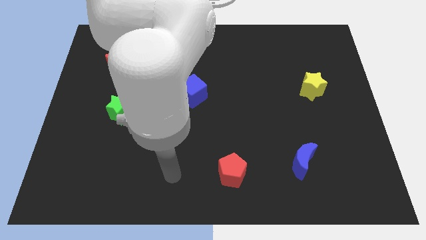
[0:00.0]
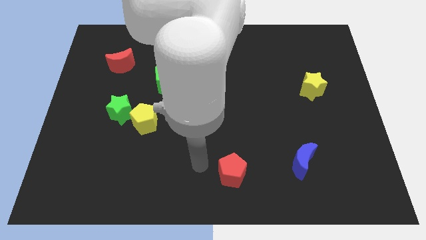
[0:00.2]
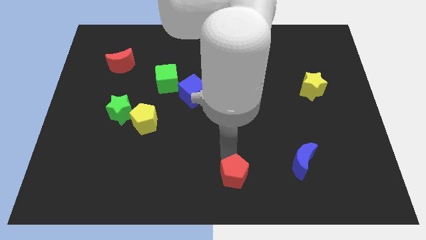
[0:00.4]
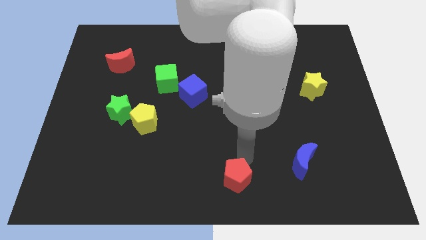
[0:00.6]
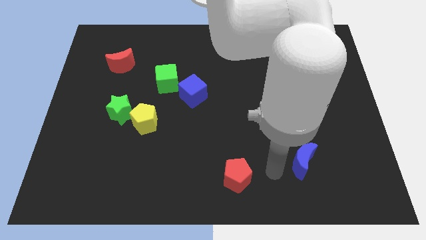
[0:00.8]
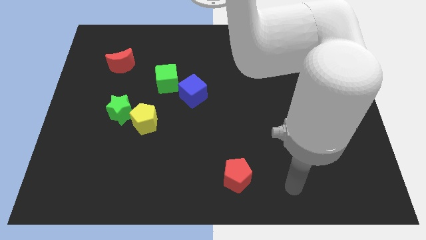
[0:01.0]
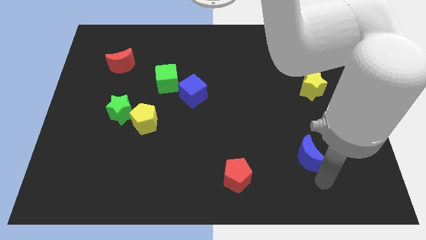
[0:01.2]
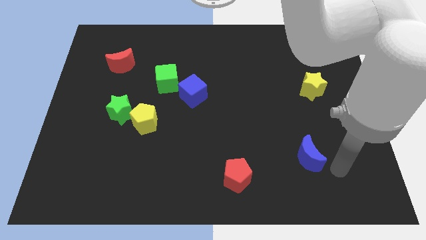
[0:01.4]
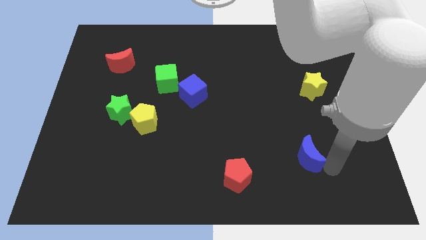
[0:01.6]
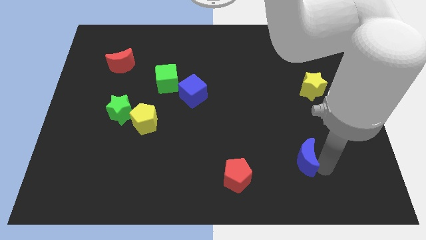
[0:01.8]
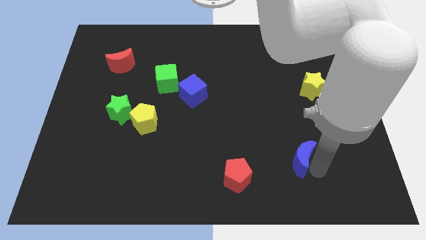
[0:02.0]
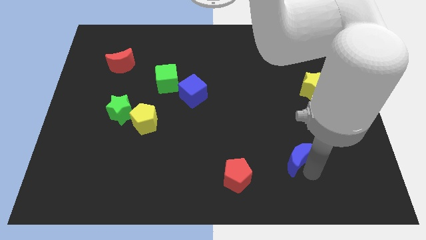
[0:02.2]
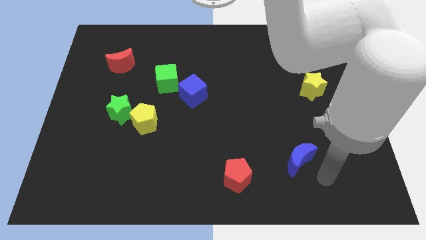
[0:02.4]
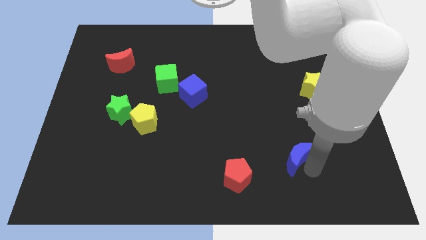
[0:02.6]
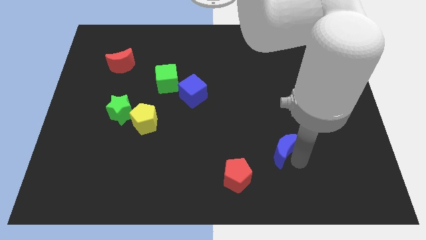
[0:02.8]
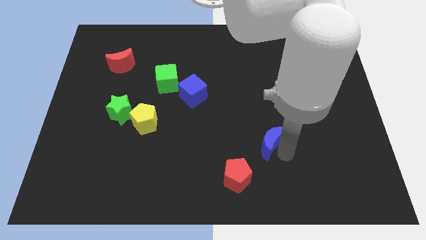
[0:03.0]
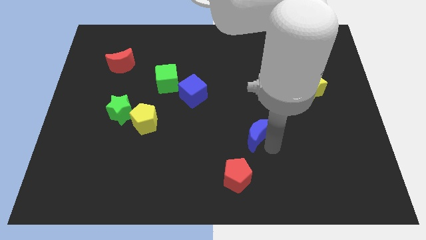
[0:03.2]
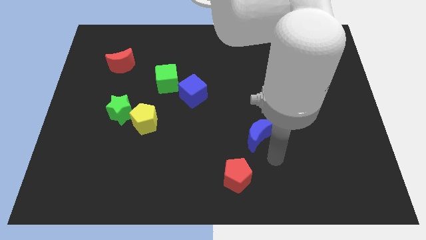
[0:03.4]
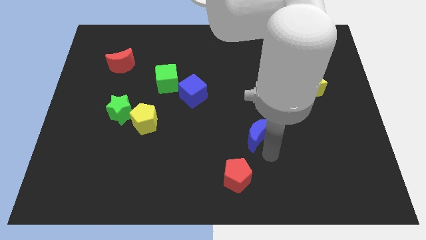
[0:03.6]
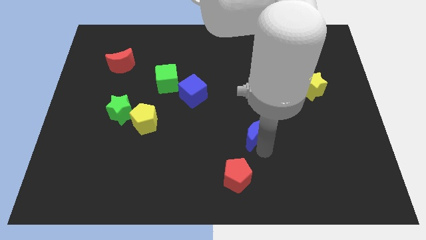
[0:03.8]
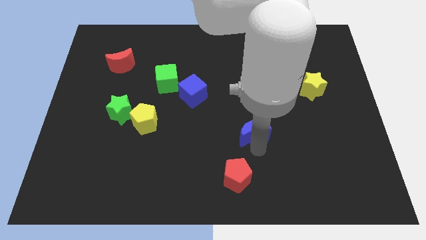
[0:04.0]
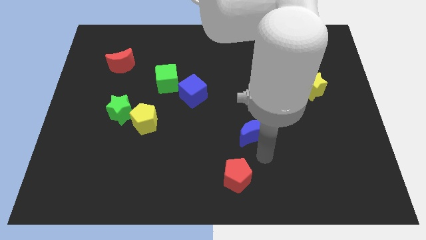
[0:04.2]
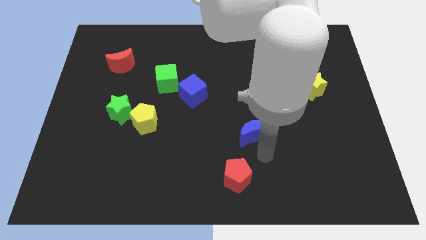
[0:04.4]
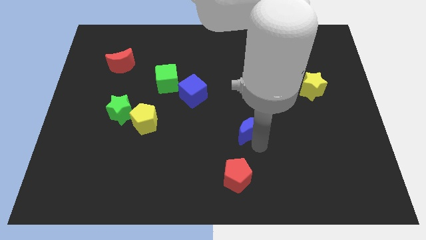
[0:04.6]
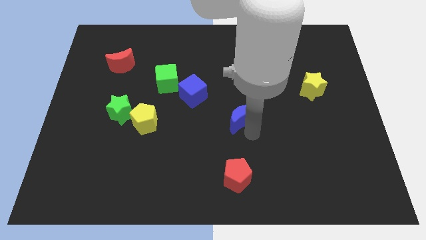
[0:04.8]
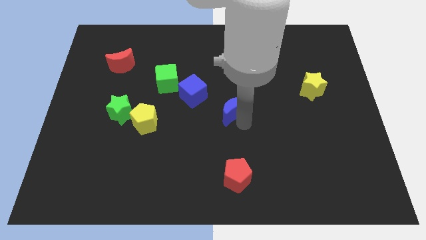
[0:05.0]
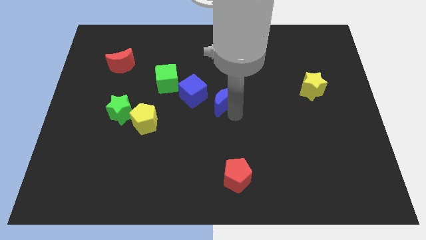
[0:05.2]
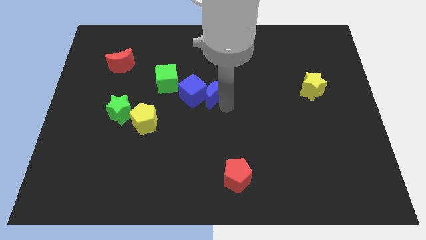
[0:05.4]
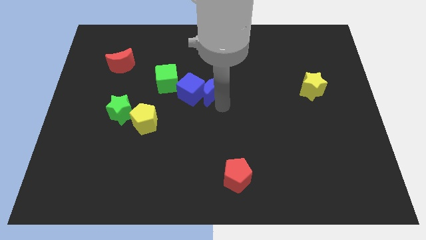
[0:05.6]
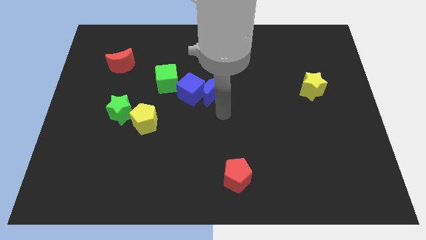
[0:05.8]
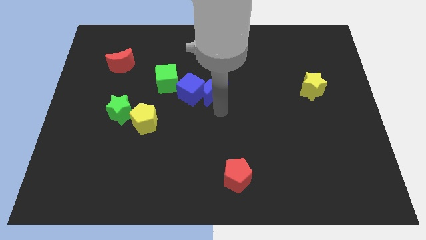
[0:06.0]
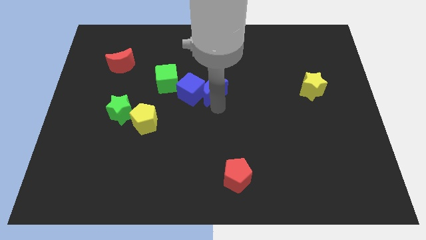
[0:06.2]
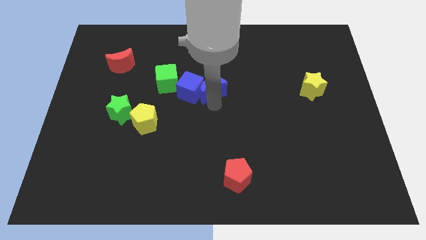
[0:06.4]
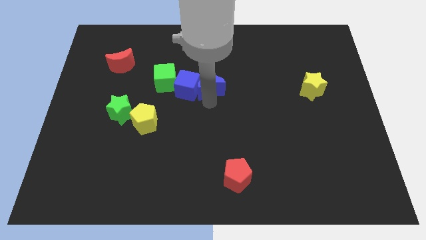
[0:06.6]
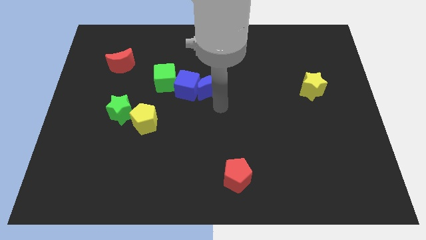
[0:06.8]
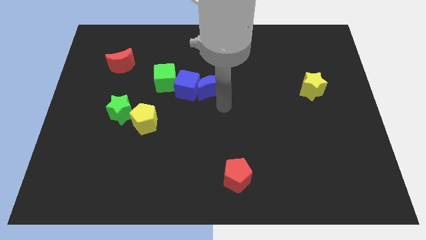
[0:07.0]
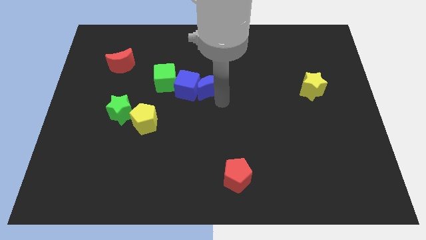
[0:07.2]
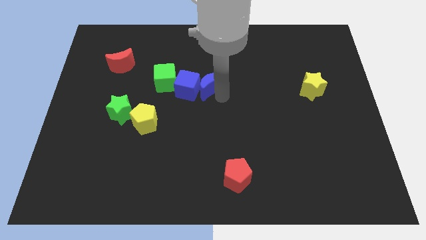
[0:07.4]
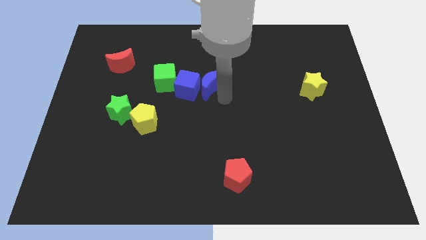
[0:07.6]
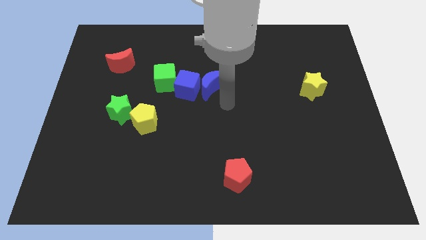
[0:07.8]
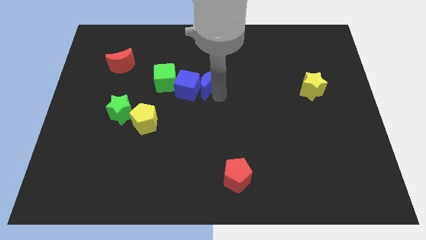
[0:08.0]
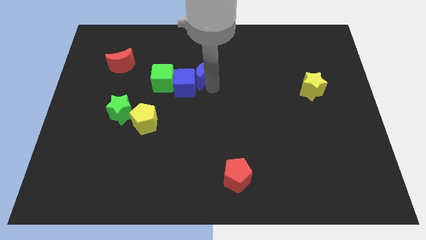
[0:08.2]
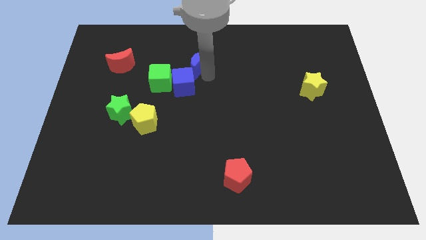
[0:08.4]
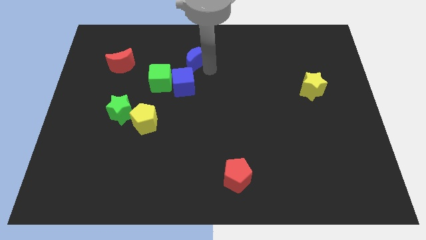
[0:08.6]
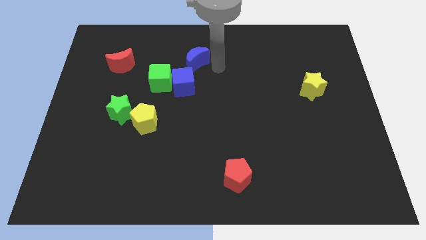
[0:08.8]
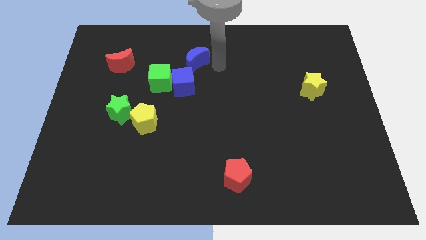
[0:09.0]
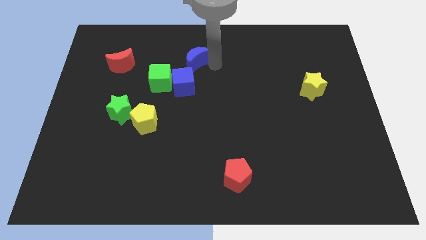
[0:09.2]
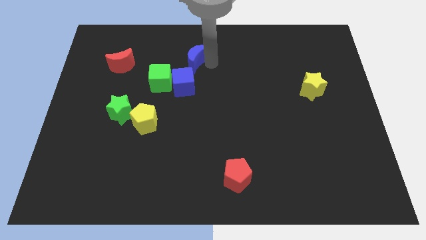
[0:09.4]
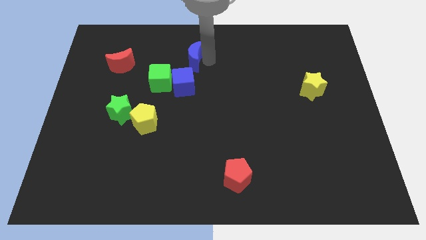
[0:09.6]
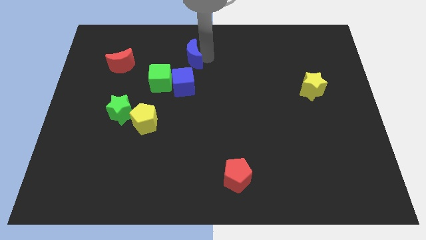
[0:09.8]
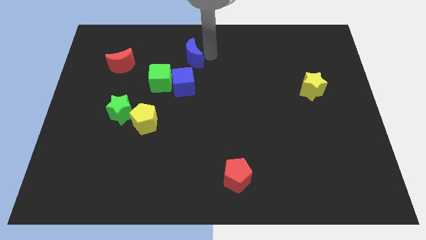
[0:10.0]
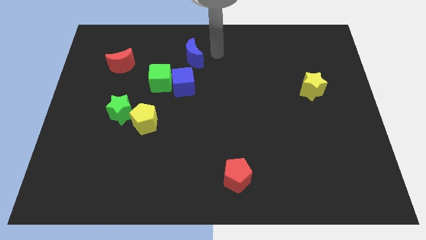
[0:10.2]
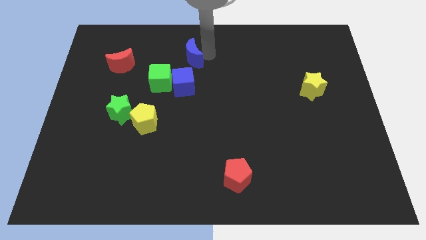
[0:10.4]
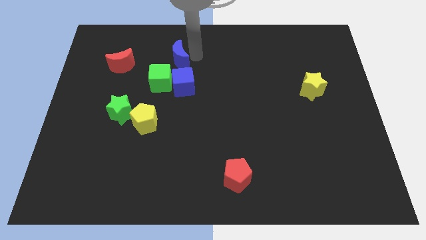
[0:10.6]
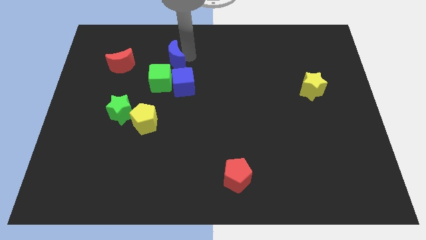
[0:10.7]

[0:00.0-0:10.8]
put the blue moon to the top left of the blue cube

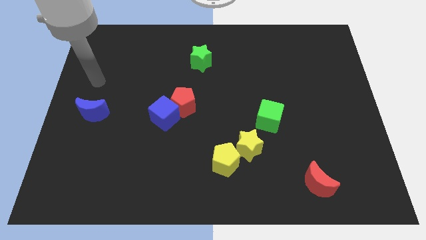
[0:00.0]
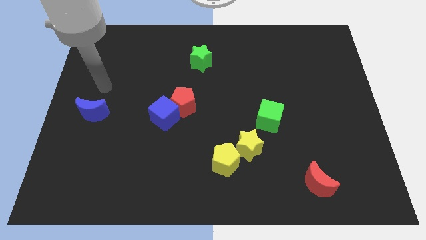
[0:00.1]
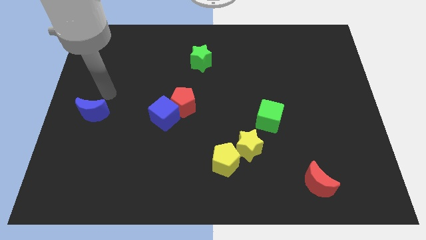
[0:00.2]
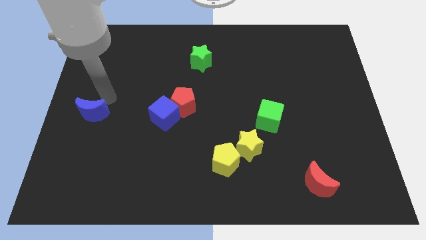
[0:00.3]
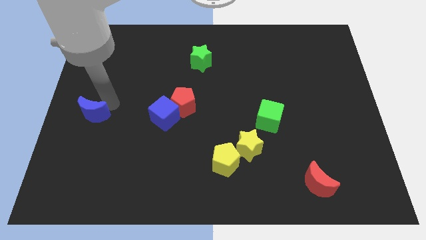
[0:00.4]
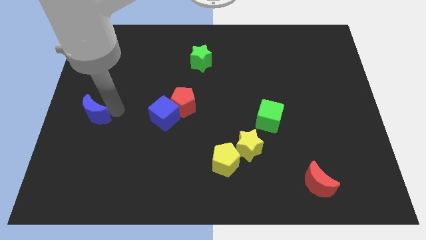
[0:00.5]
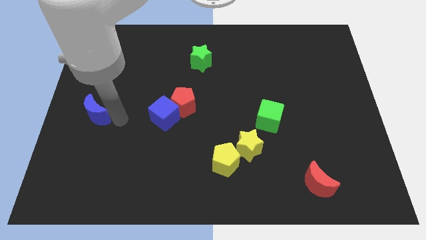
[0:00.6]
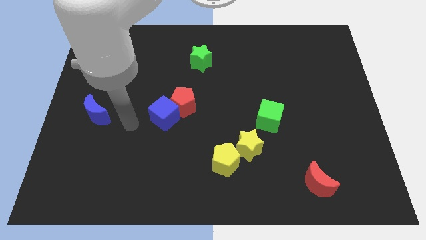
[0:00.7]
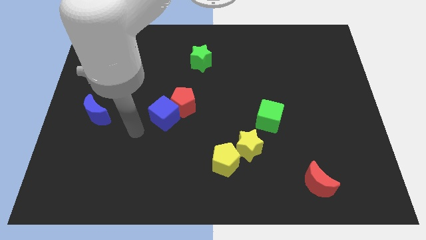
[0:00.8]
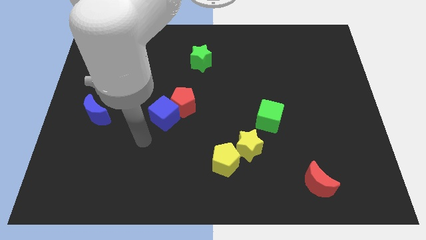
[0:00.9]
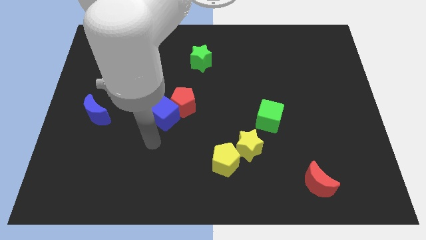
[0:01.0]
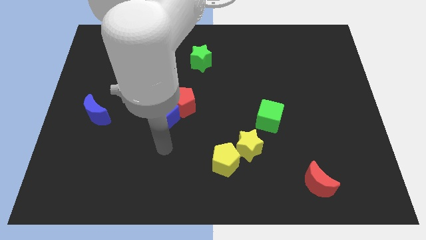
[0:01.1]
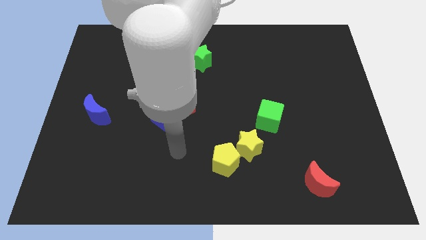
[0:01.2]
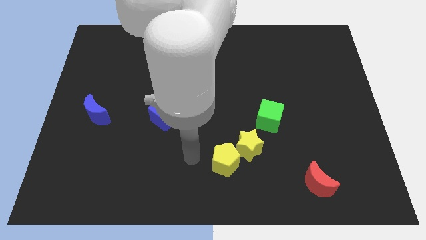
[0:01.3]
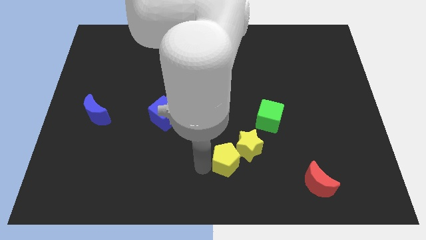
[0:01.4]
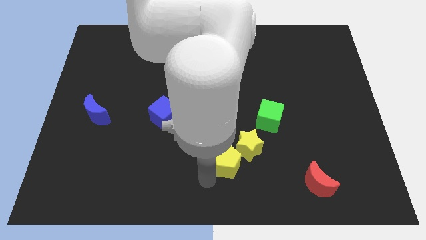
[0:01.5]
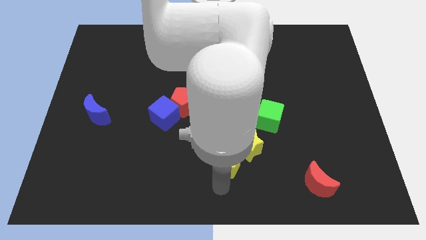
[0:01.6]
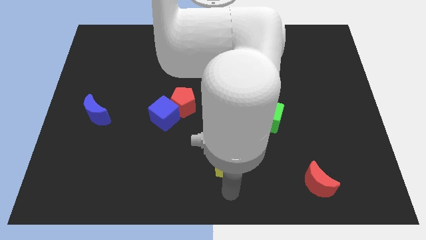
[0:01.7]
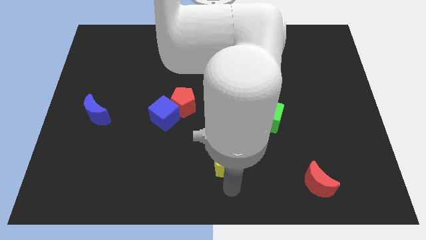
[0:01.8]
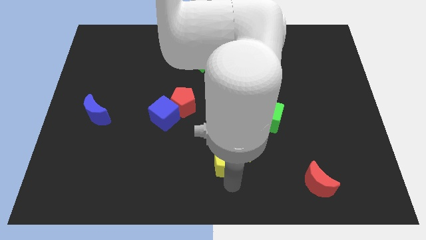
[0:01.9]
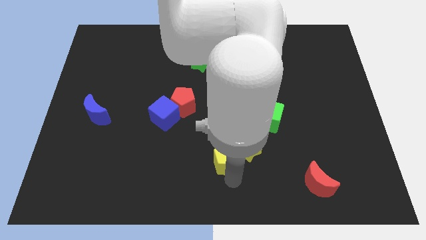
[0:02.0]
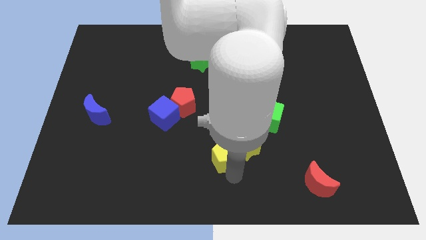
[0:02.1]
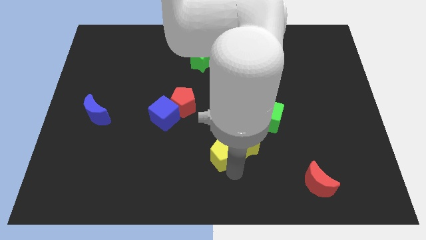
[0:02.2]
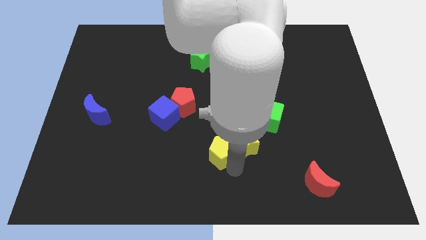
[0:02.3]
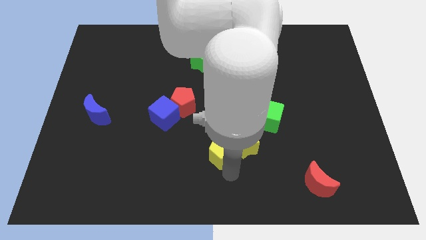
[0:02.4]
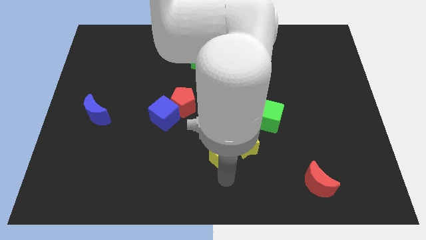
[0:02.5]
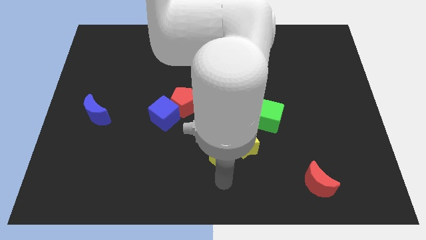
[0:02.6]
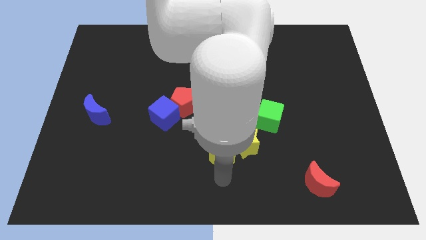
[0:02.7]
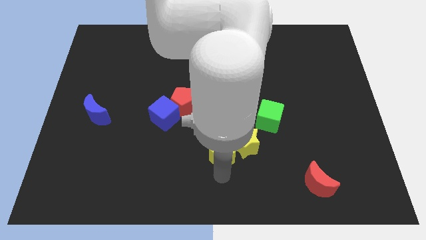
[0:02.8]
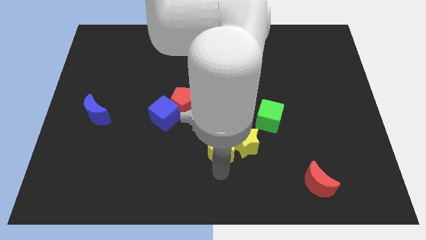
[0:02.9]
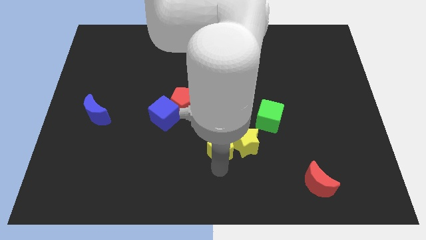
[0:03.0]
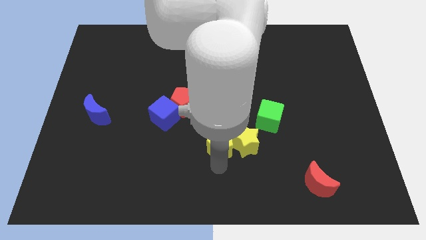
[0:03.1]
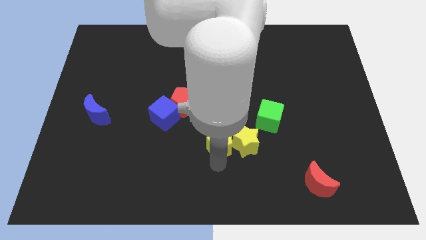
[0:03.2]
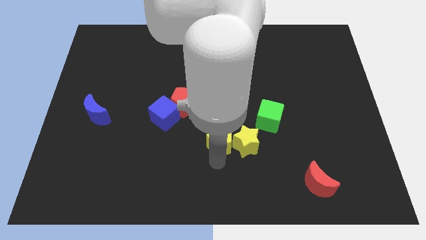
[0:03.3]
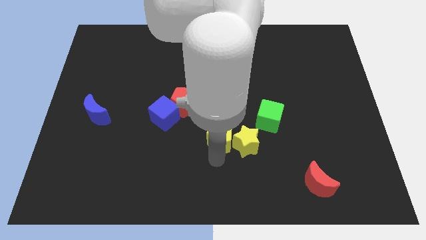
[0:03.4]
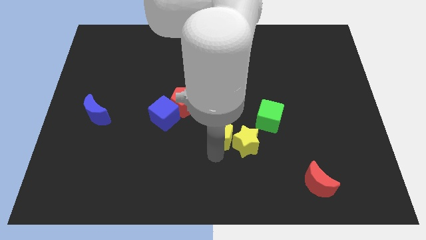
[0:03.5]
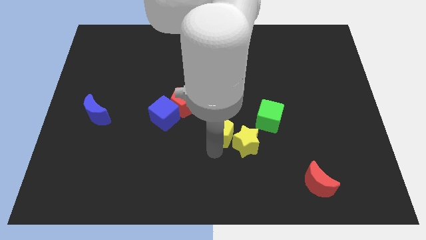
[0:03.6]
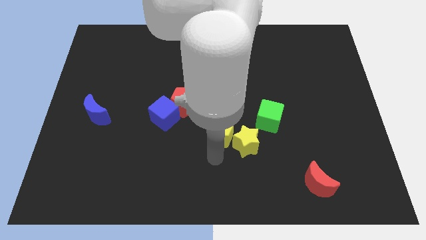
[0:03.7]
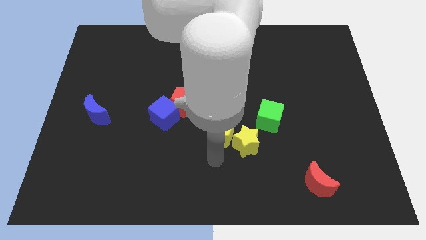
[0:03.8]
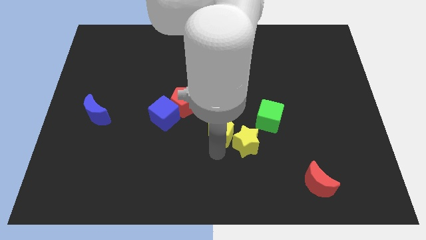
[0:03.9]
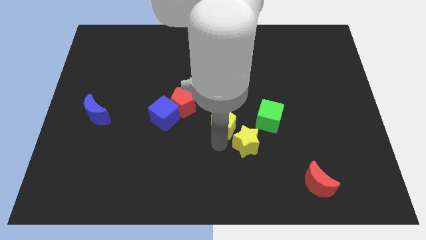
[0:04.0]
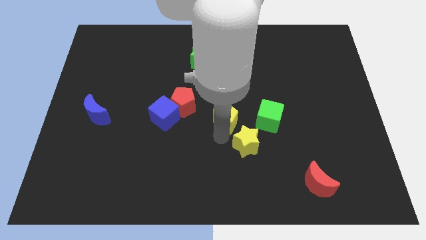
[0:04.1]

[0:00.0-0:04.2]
slide the yellow pentagon to the right side of the red pentagon
